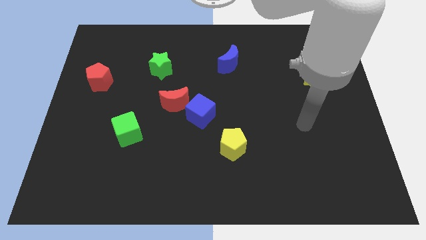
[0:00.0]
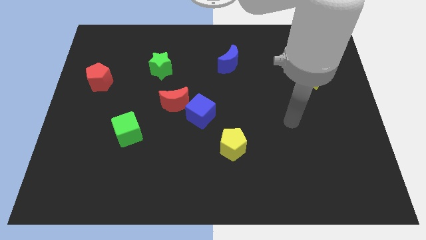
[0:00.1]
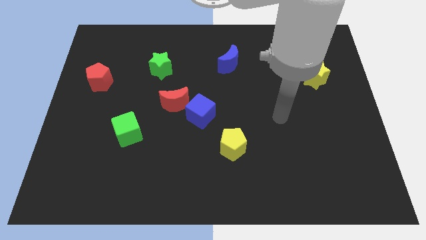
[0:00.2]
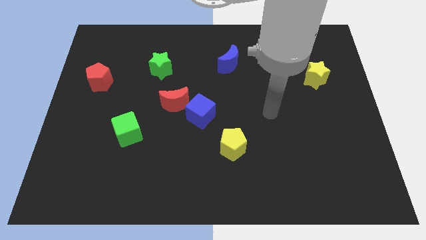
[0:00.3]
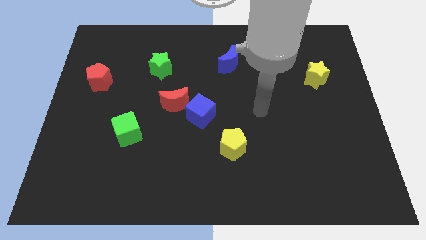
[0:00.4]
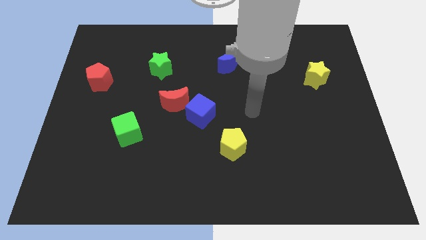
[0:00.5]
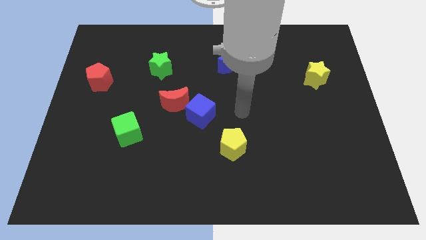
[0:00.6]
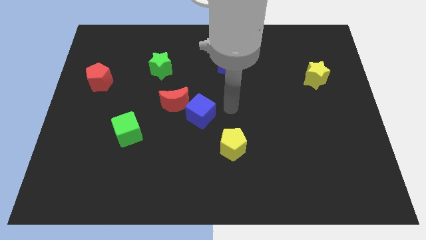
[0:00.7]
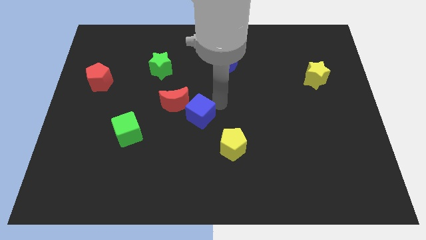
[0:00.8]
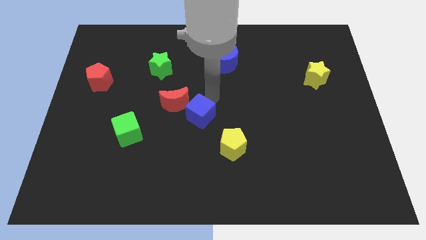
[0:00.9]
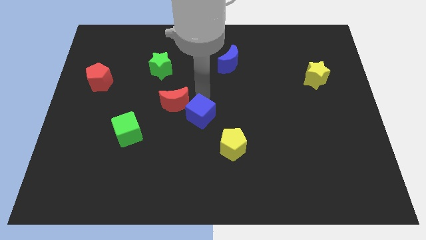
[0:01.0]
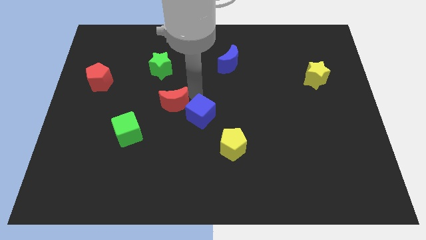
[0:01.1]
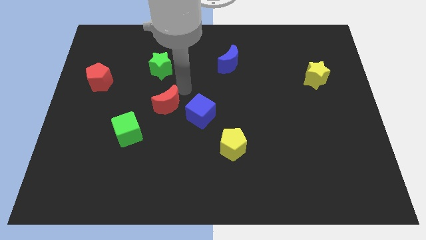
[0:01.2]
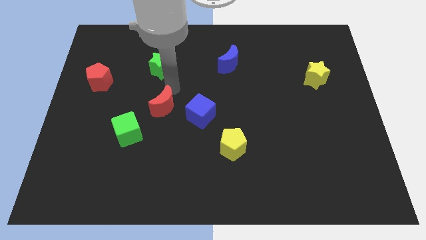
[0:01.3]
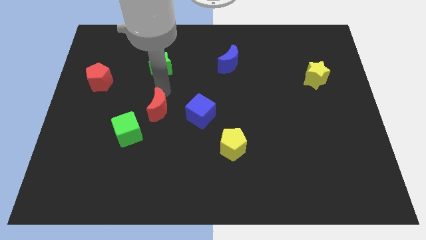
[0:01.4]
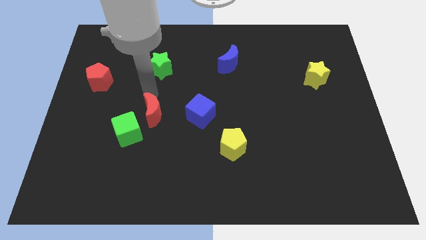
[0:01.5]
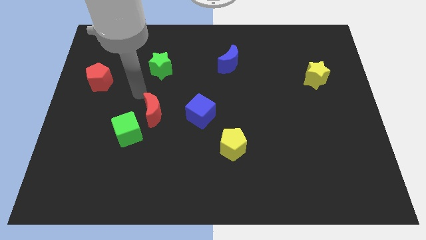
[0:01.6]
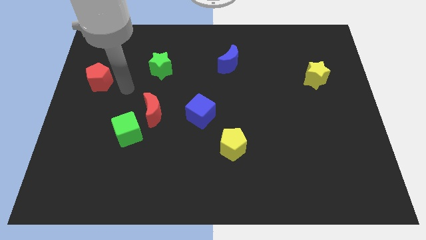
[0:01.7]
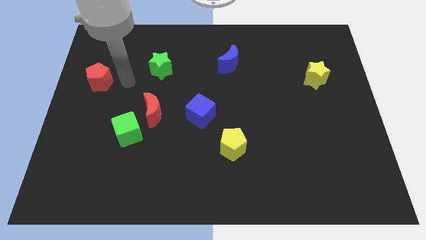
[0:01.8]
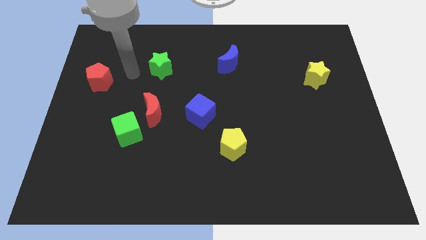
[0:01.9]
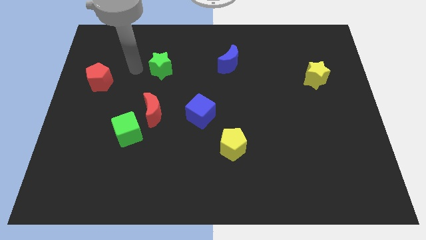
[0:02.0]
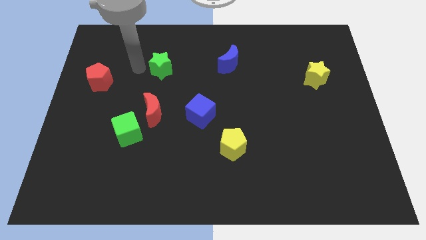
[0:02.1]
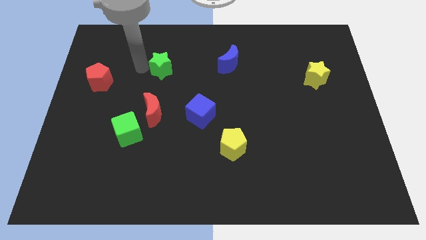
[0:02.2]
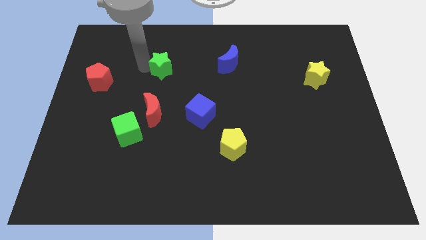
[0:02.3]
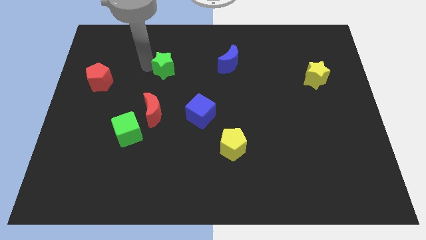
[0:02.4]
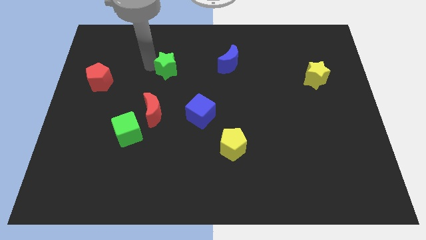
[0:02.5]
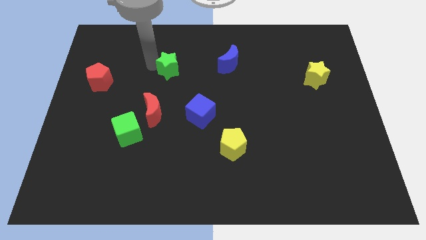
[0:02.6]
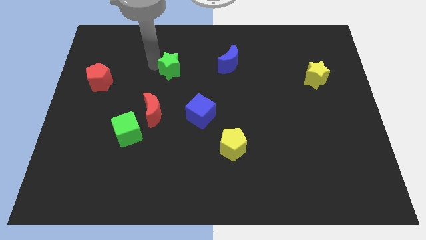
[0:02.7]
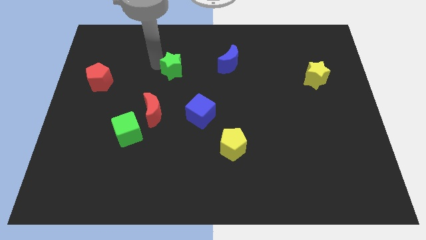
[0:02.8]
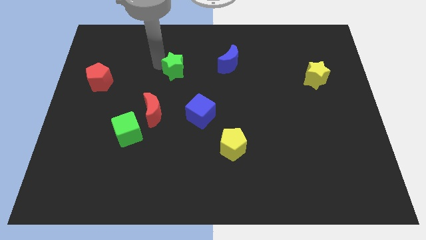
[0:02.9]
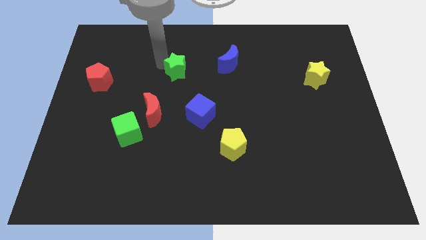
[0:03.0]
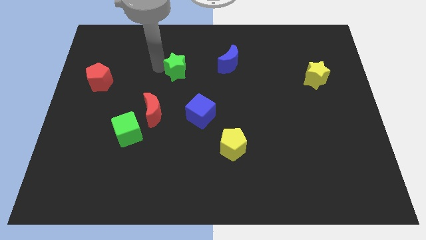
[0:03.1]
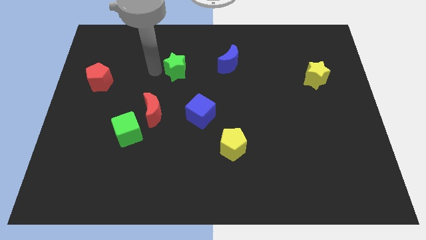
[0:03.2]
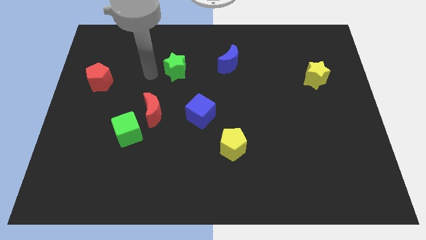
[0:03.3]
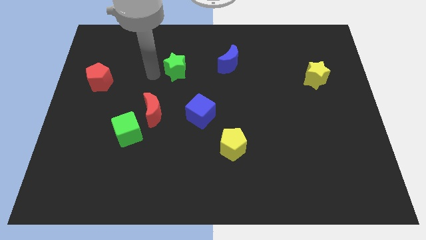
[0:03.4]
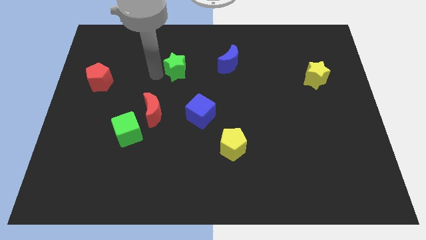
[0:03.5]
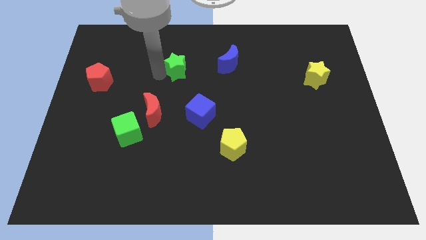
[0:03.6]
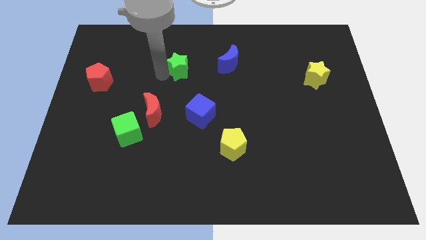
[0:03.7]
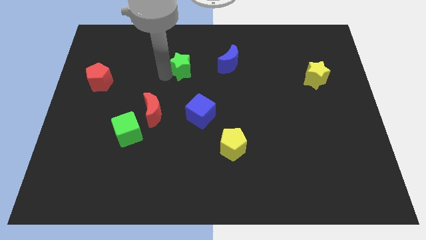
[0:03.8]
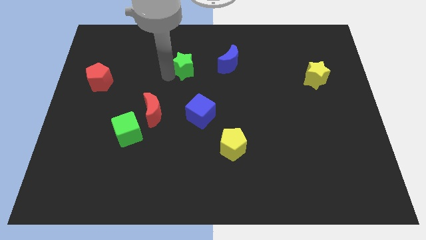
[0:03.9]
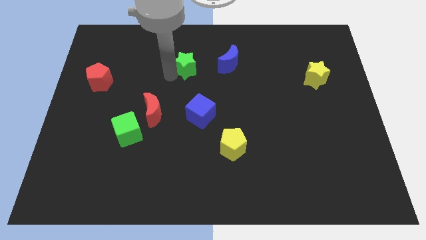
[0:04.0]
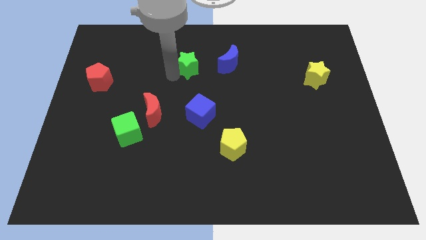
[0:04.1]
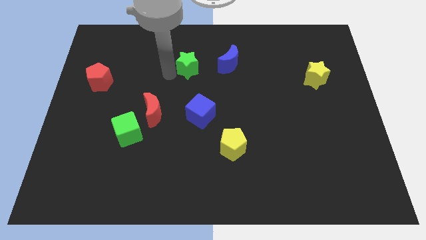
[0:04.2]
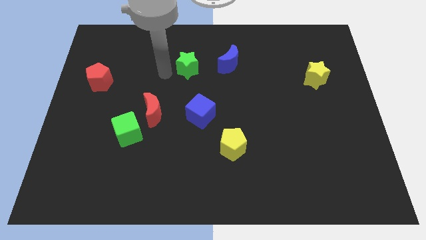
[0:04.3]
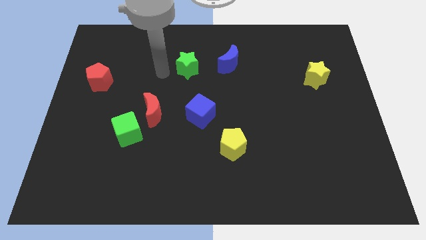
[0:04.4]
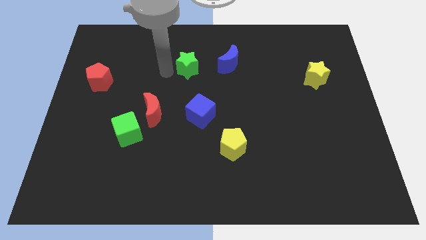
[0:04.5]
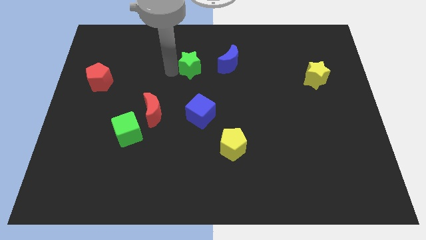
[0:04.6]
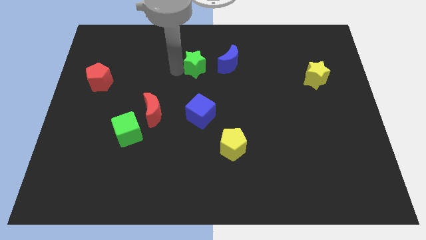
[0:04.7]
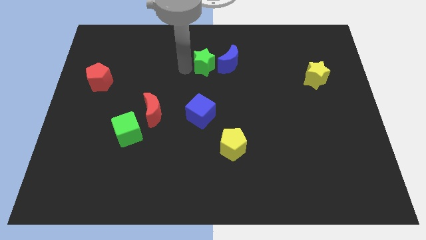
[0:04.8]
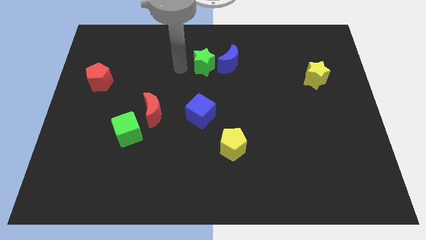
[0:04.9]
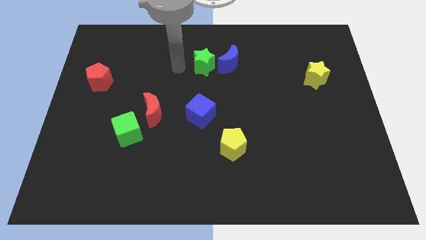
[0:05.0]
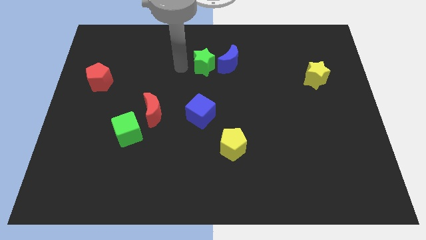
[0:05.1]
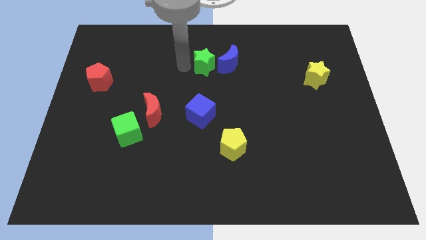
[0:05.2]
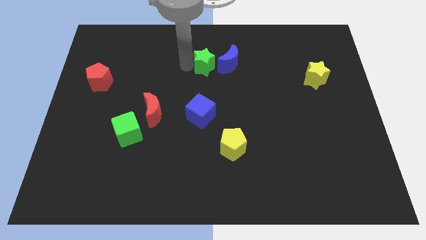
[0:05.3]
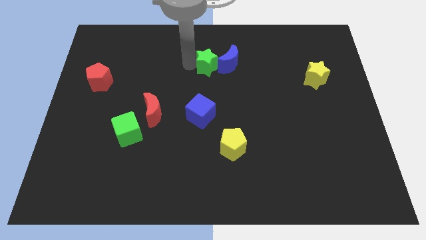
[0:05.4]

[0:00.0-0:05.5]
put the green star next to the blue moon

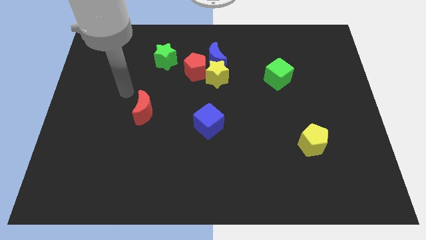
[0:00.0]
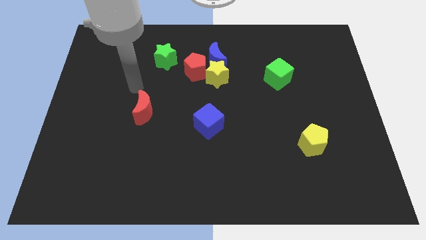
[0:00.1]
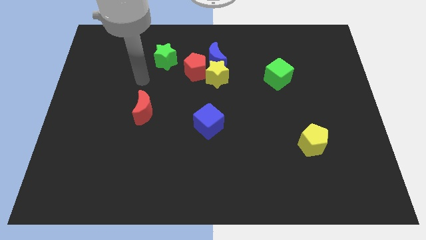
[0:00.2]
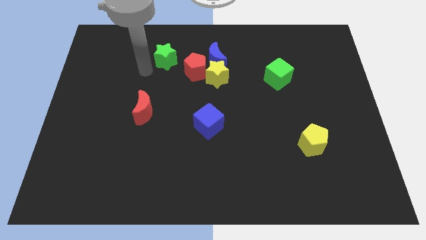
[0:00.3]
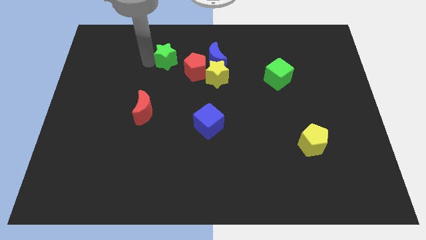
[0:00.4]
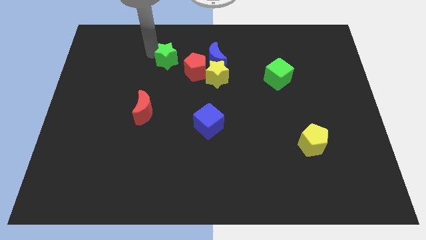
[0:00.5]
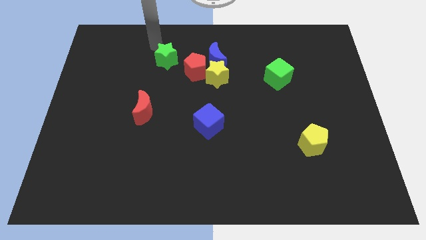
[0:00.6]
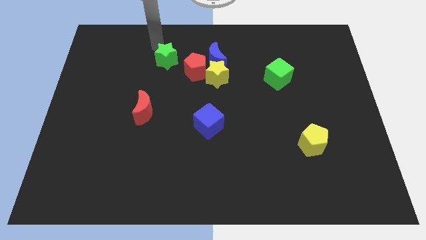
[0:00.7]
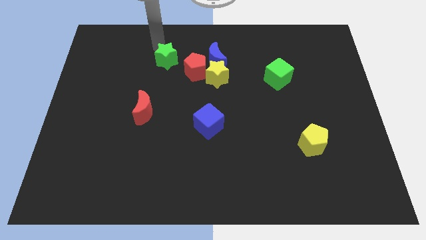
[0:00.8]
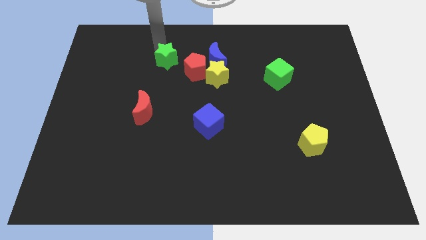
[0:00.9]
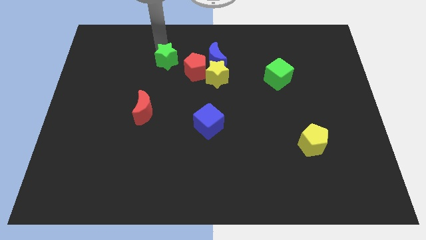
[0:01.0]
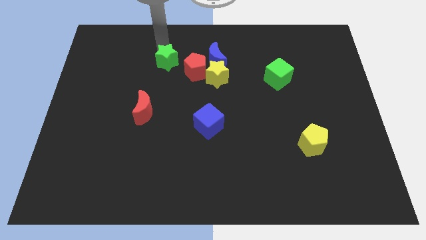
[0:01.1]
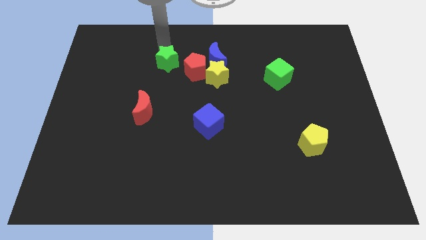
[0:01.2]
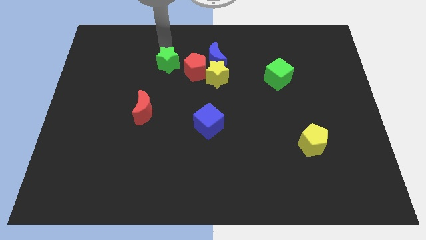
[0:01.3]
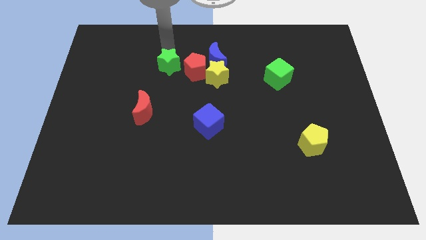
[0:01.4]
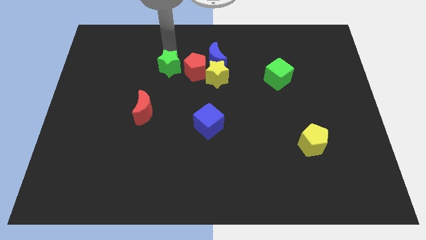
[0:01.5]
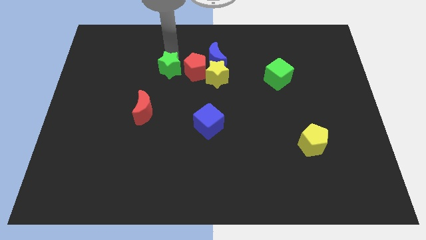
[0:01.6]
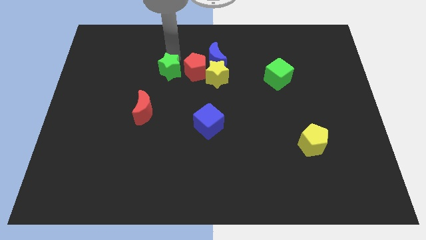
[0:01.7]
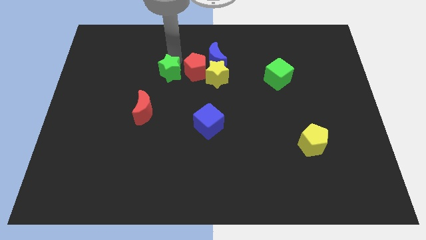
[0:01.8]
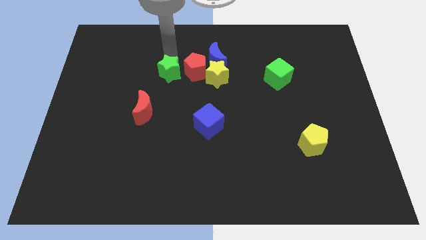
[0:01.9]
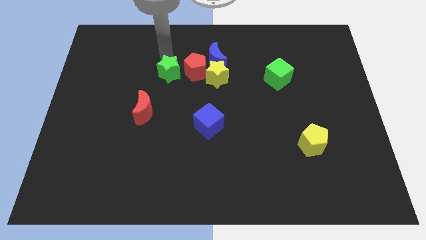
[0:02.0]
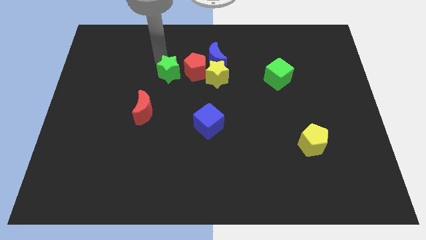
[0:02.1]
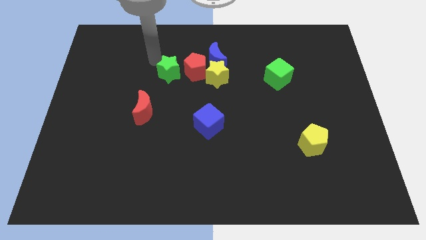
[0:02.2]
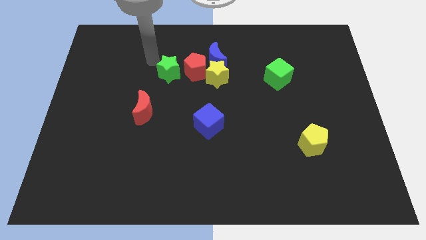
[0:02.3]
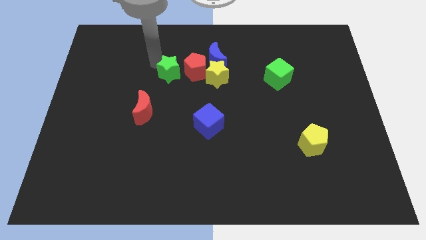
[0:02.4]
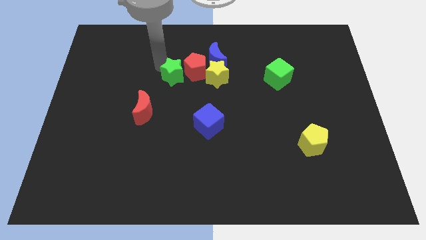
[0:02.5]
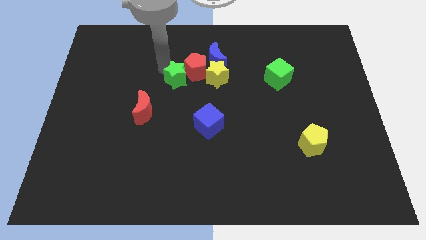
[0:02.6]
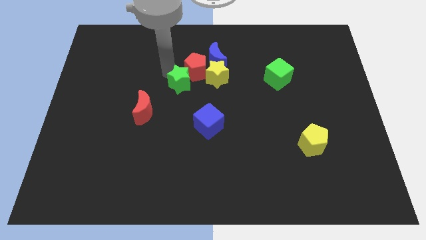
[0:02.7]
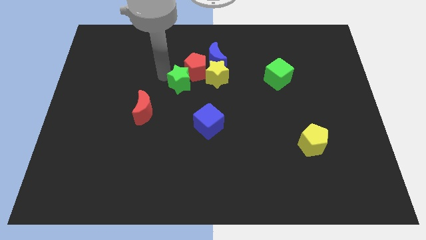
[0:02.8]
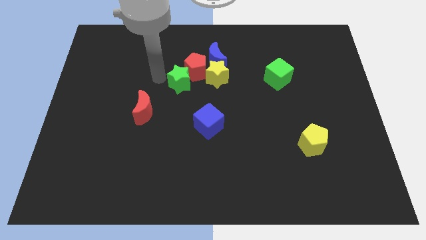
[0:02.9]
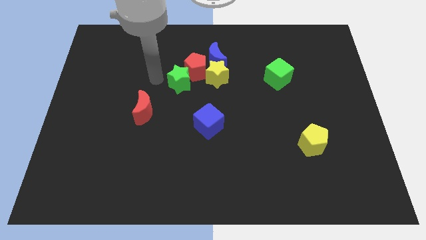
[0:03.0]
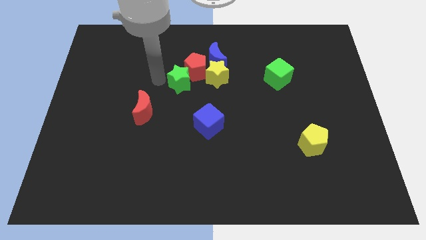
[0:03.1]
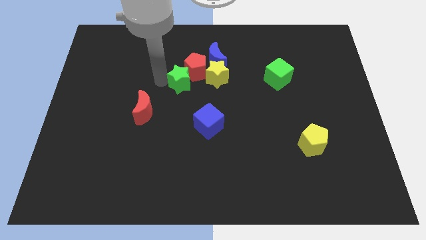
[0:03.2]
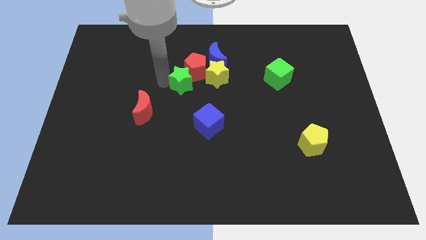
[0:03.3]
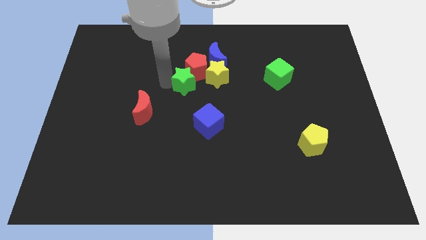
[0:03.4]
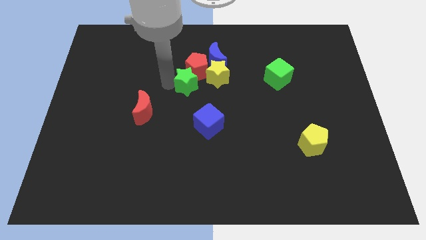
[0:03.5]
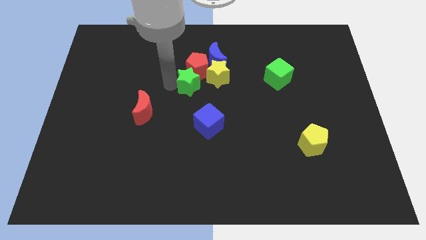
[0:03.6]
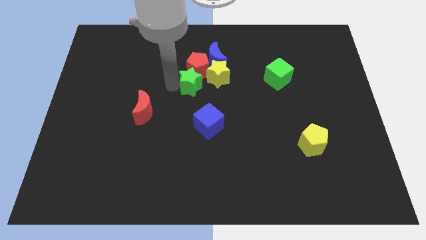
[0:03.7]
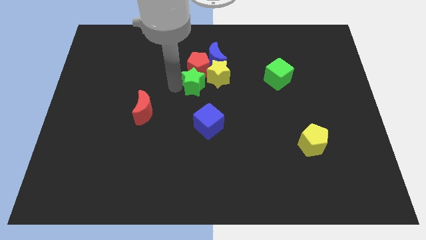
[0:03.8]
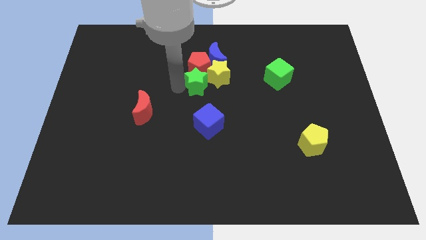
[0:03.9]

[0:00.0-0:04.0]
move the green star to the yellow star
